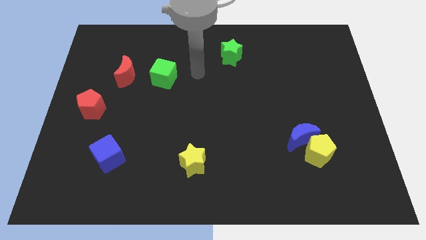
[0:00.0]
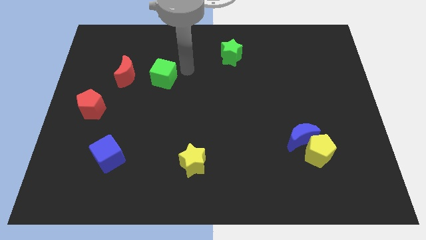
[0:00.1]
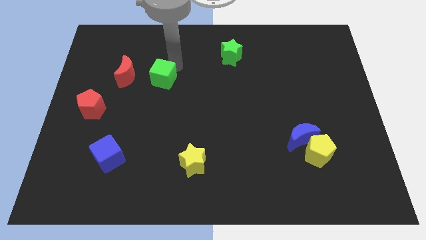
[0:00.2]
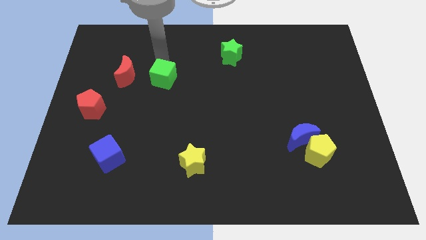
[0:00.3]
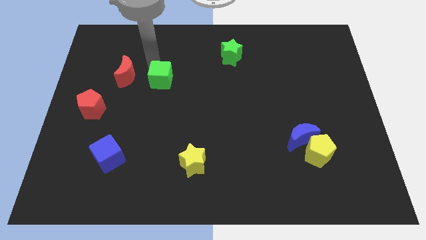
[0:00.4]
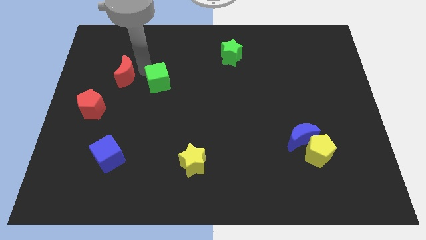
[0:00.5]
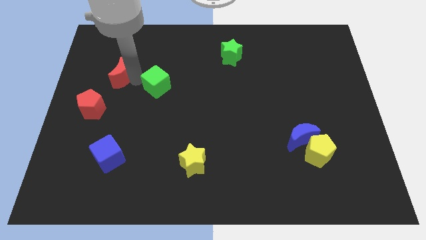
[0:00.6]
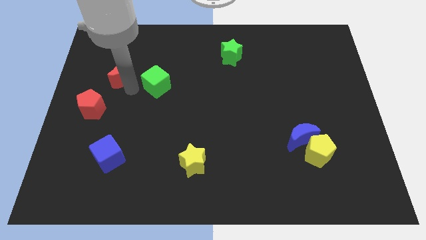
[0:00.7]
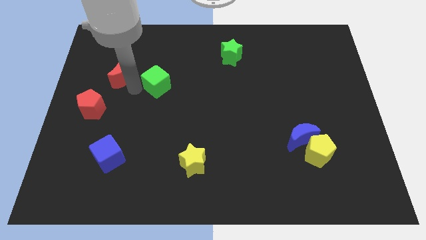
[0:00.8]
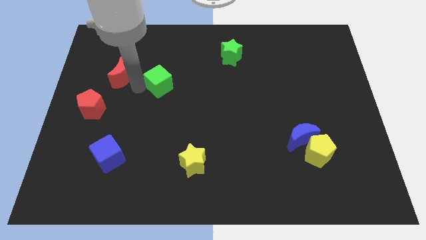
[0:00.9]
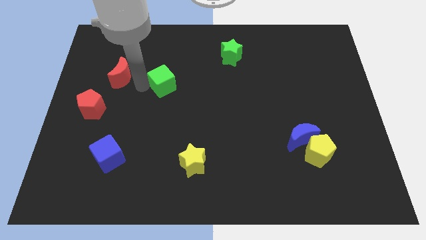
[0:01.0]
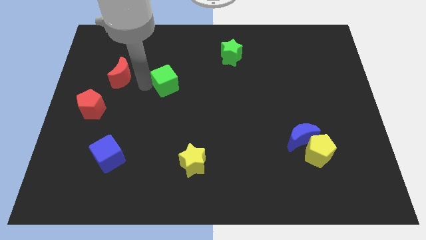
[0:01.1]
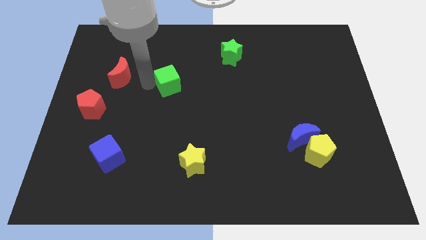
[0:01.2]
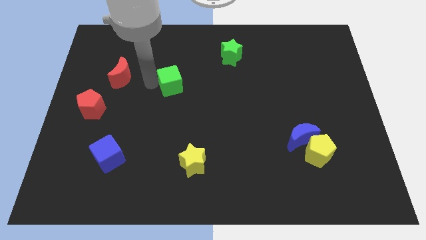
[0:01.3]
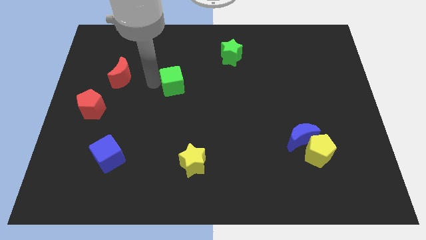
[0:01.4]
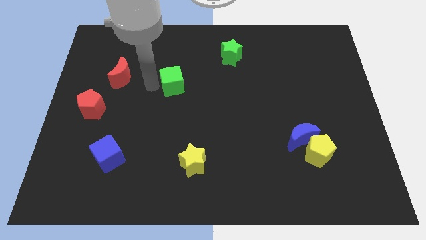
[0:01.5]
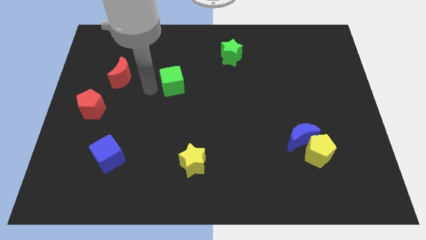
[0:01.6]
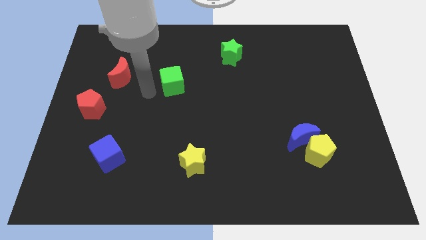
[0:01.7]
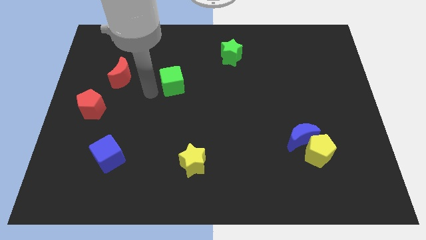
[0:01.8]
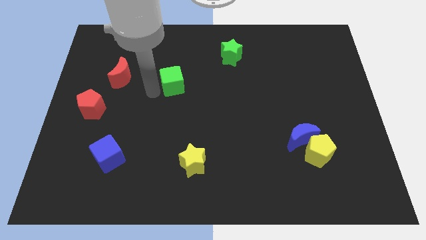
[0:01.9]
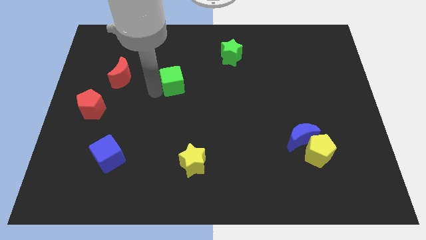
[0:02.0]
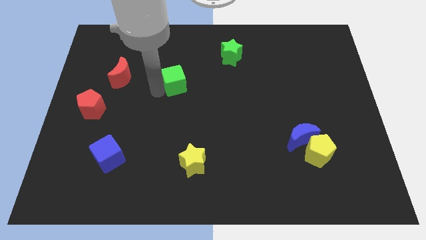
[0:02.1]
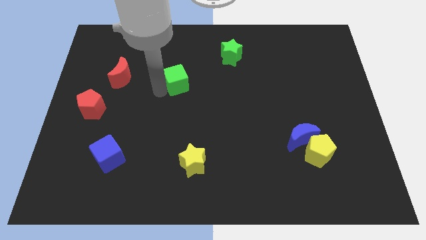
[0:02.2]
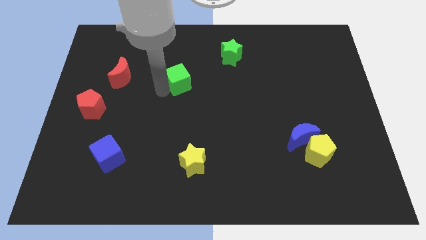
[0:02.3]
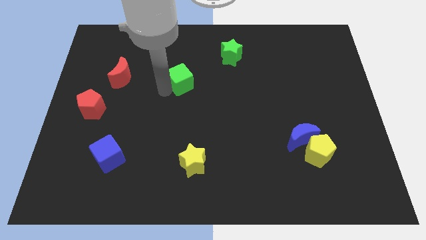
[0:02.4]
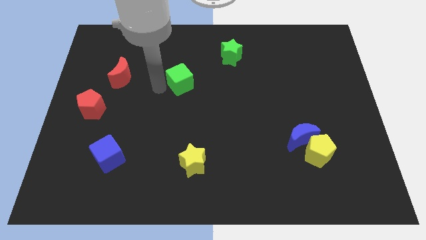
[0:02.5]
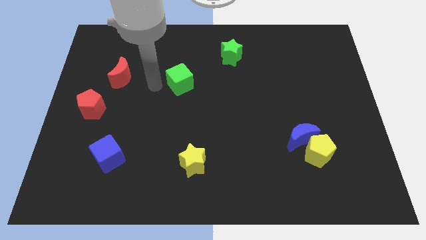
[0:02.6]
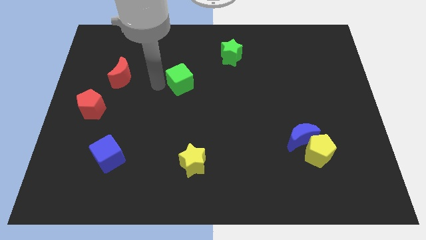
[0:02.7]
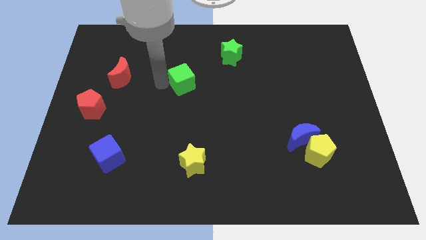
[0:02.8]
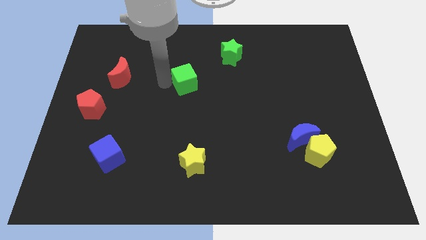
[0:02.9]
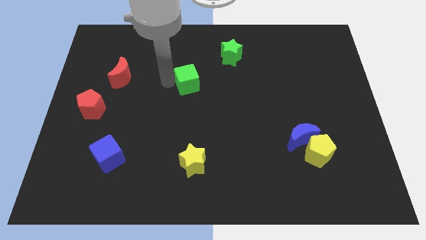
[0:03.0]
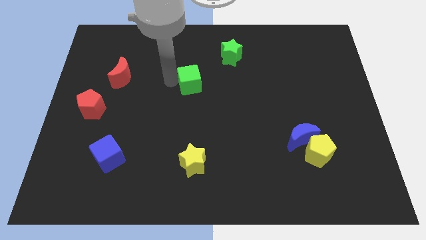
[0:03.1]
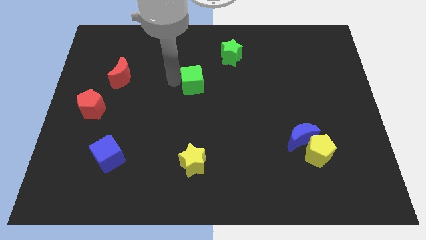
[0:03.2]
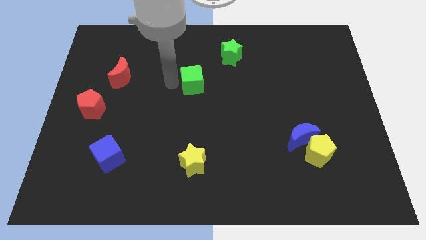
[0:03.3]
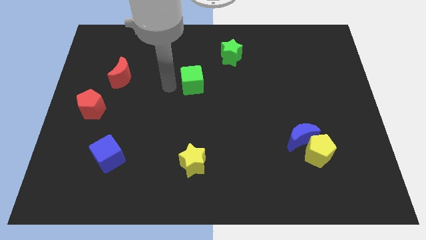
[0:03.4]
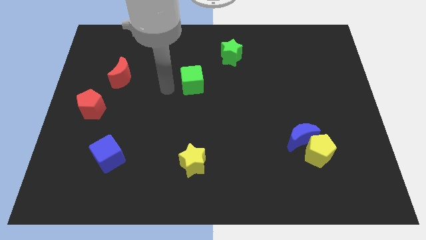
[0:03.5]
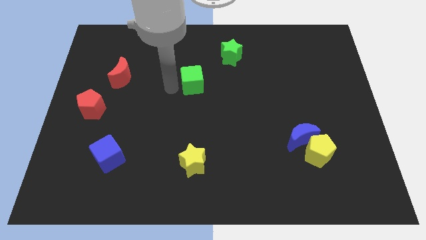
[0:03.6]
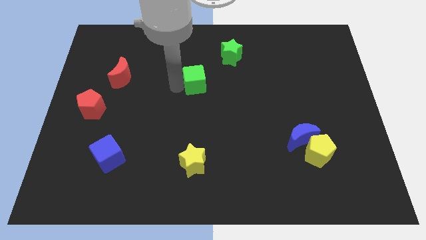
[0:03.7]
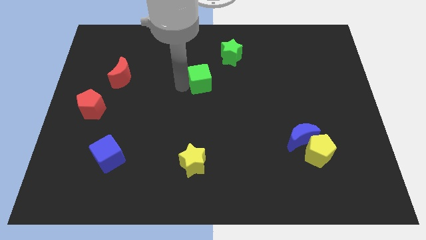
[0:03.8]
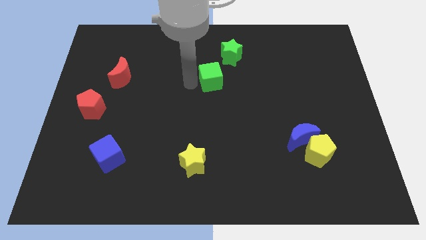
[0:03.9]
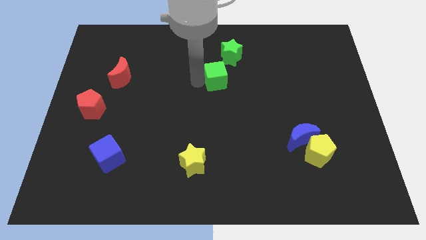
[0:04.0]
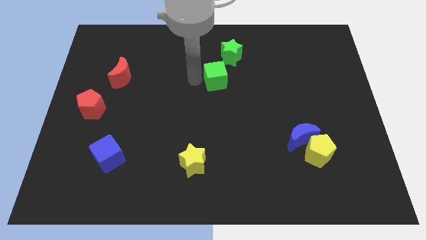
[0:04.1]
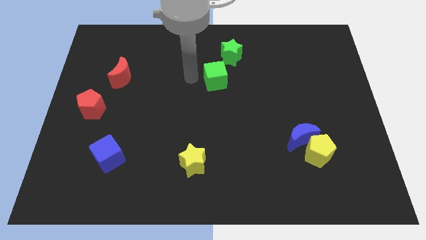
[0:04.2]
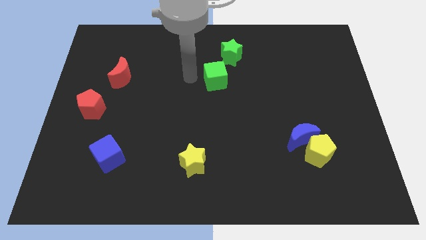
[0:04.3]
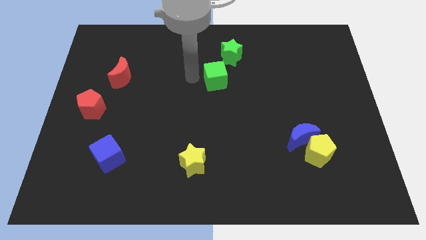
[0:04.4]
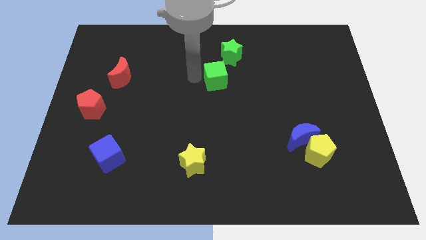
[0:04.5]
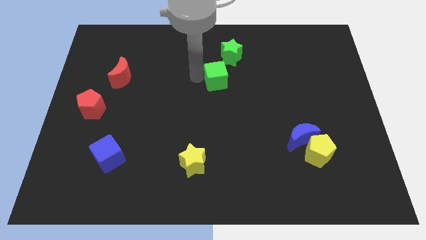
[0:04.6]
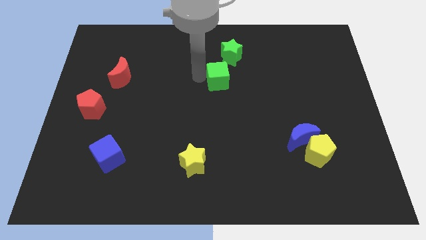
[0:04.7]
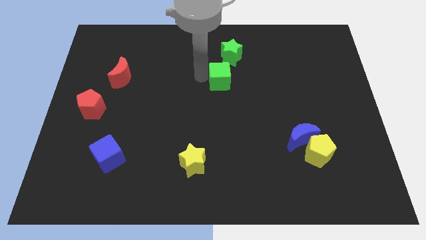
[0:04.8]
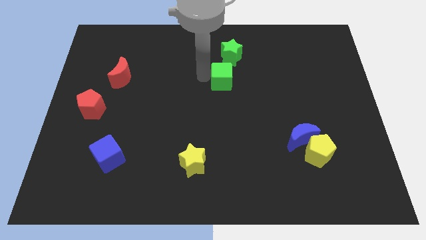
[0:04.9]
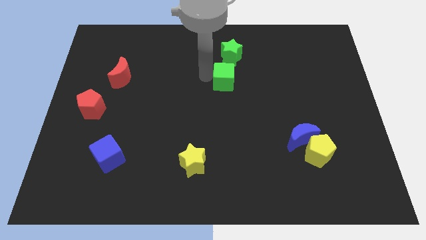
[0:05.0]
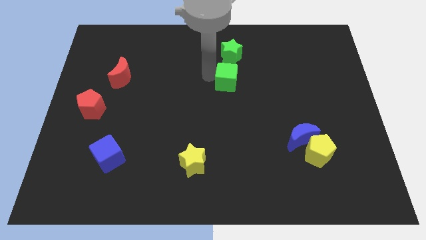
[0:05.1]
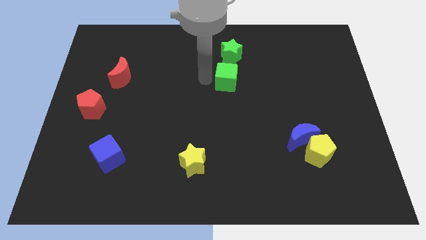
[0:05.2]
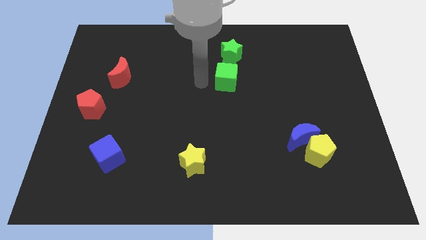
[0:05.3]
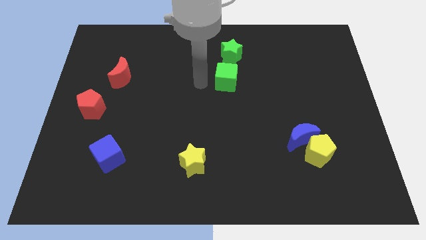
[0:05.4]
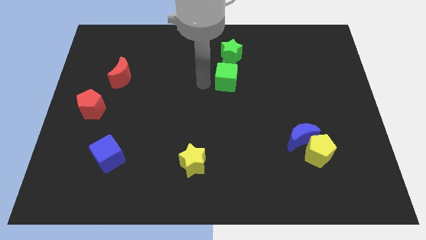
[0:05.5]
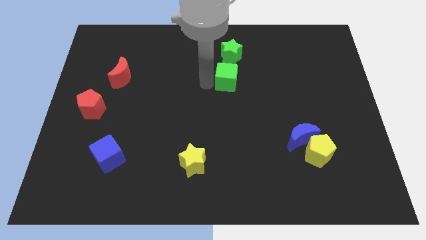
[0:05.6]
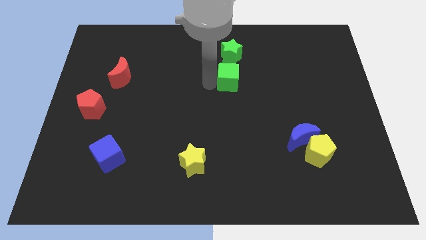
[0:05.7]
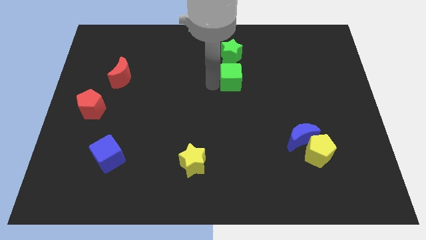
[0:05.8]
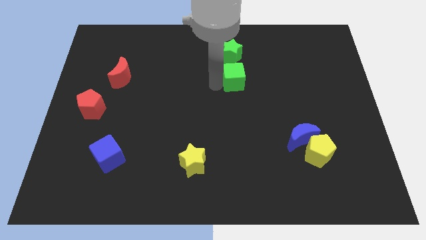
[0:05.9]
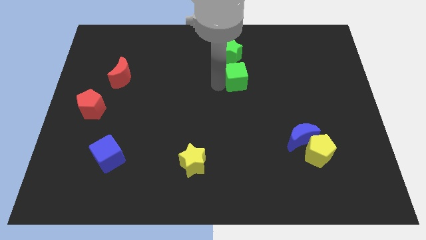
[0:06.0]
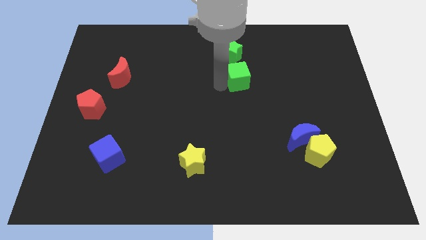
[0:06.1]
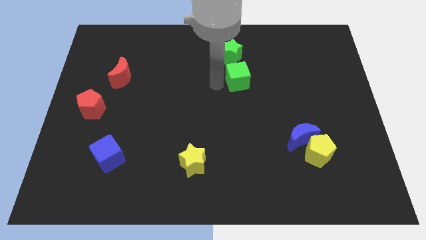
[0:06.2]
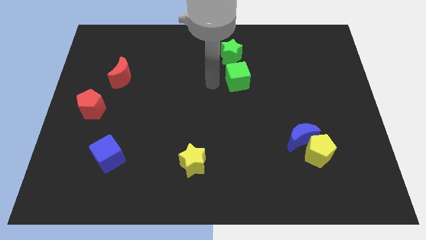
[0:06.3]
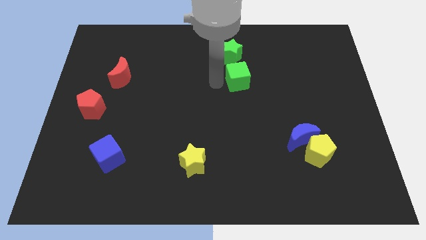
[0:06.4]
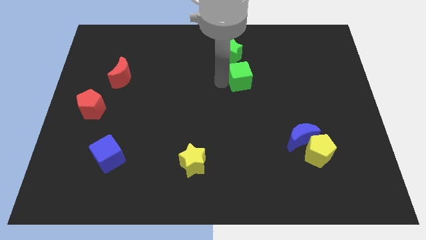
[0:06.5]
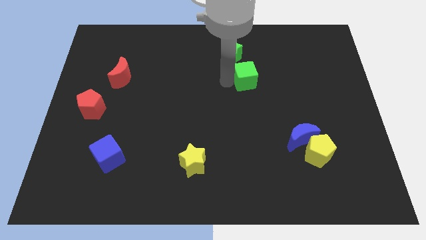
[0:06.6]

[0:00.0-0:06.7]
push the green cube right

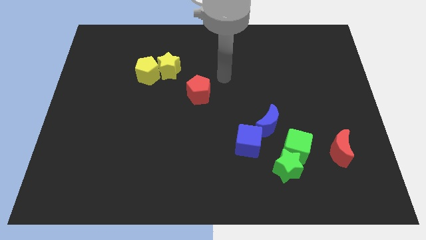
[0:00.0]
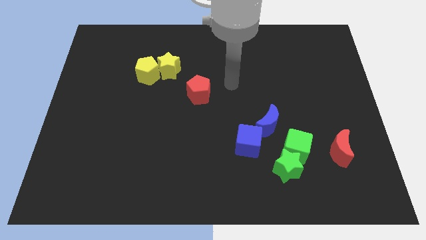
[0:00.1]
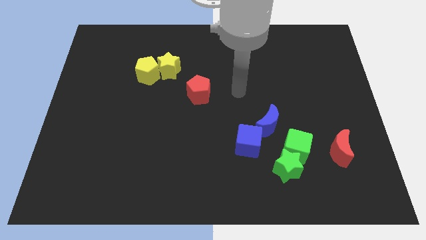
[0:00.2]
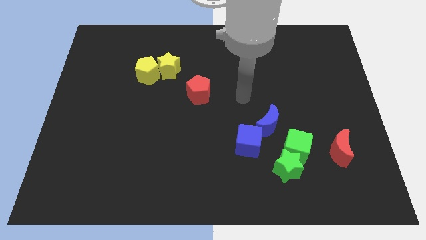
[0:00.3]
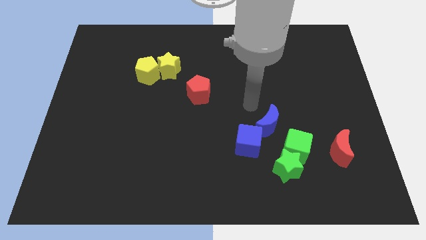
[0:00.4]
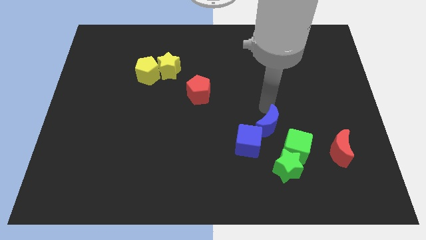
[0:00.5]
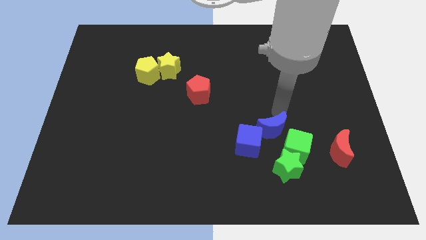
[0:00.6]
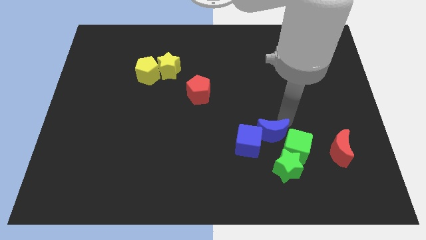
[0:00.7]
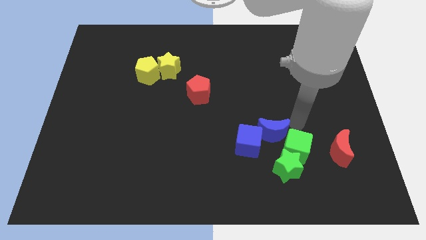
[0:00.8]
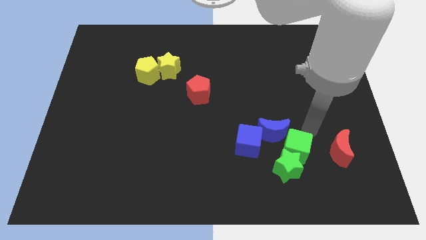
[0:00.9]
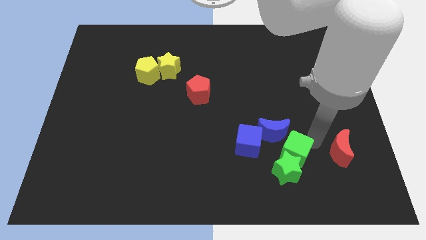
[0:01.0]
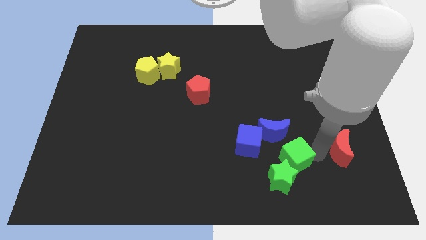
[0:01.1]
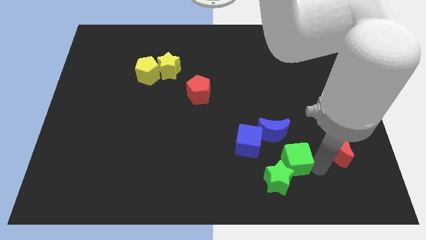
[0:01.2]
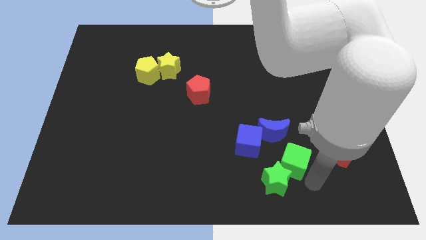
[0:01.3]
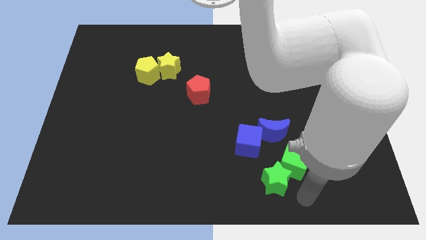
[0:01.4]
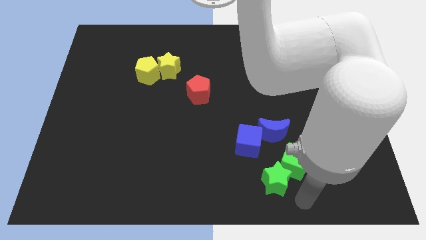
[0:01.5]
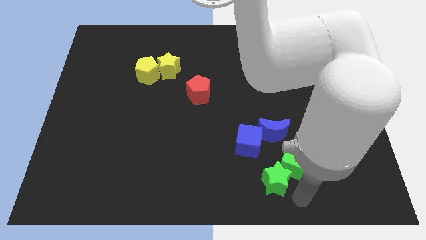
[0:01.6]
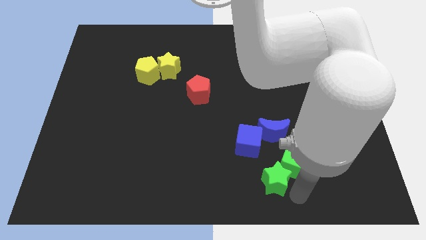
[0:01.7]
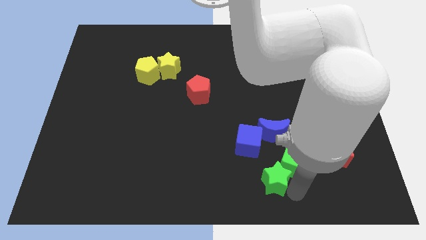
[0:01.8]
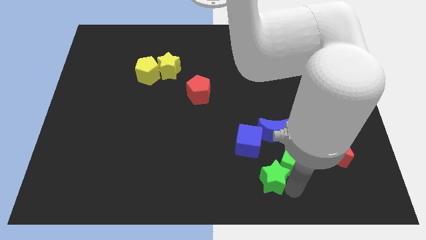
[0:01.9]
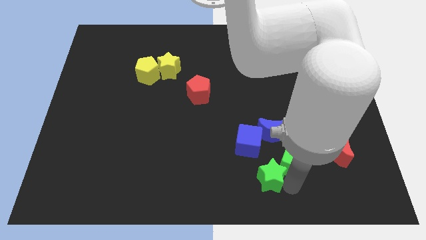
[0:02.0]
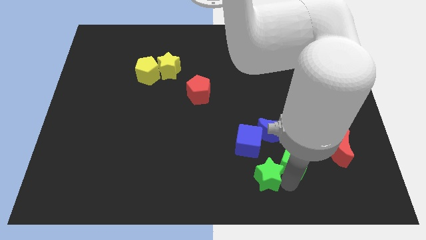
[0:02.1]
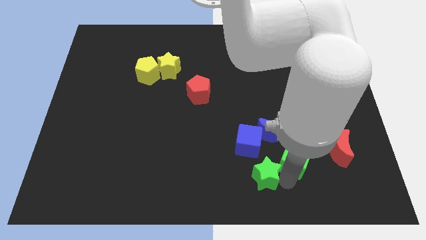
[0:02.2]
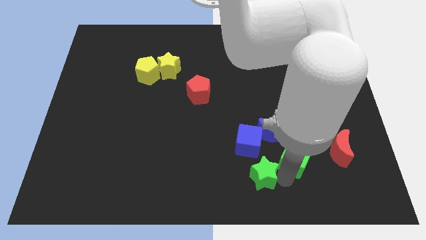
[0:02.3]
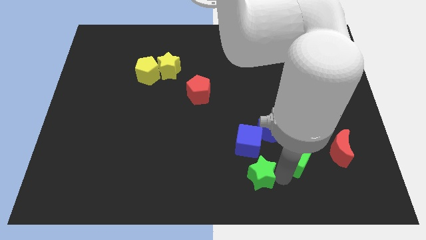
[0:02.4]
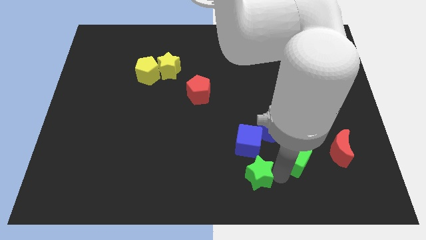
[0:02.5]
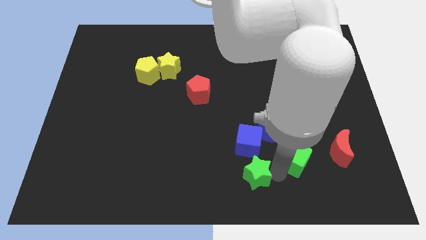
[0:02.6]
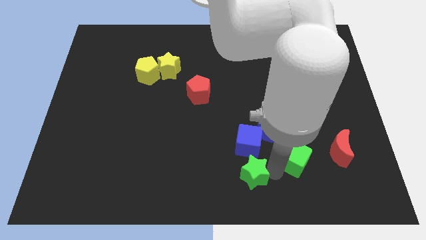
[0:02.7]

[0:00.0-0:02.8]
slightly move the green star to the left
